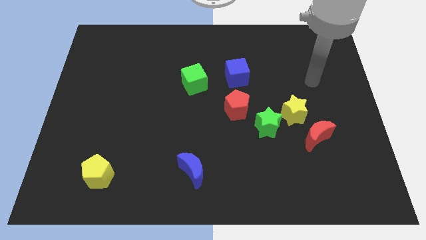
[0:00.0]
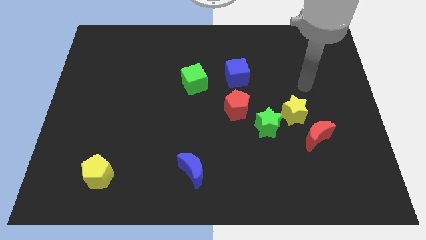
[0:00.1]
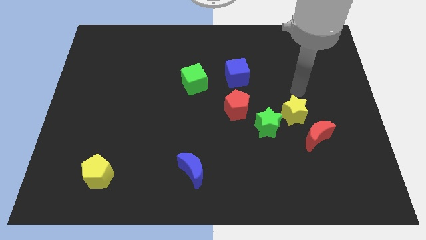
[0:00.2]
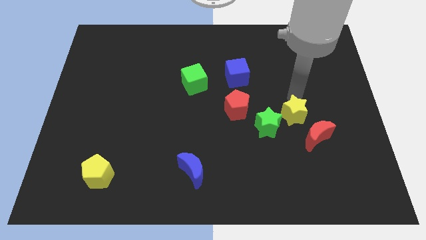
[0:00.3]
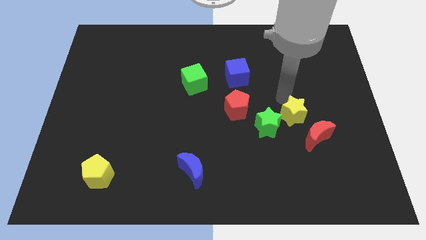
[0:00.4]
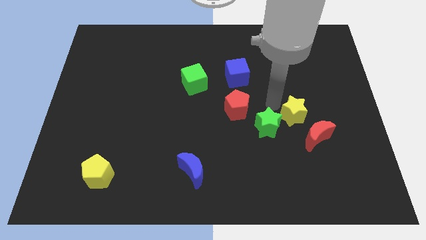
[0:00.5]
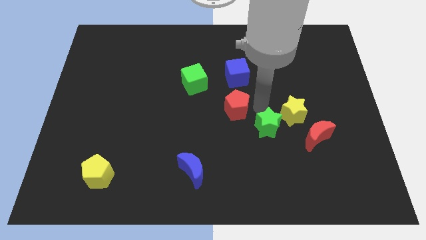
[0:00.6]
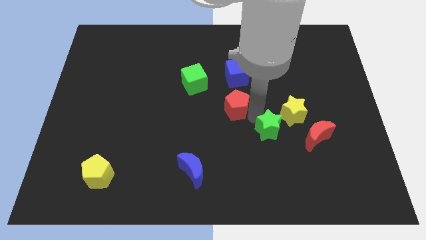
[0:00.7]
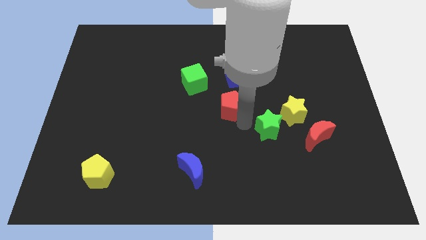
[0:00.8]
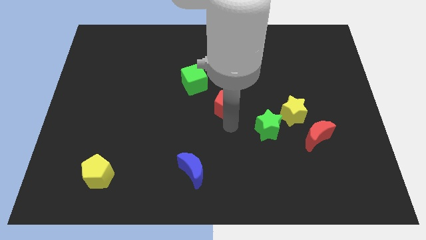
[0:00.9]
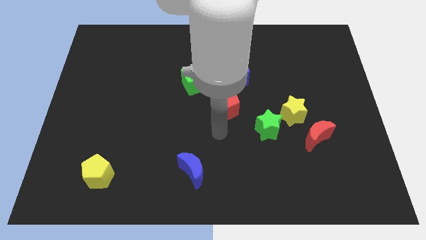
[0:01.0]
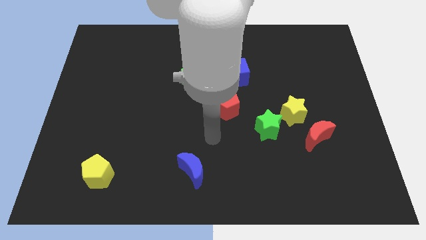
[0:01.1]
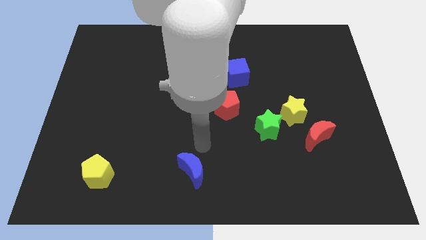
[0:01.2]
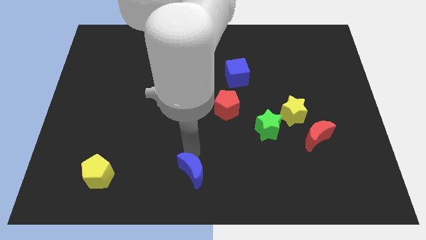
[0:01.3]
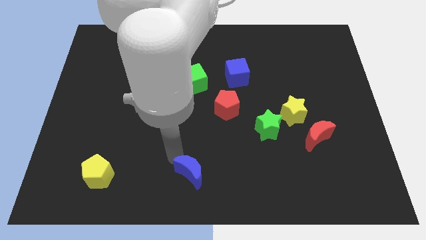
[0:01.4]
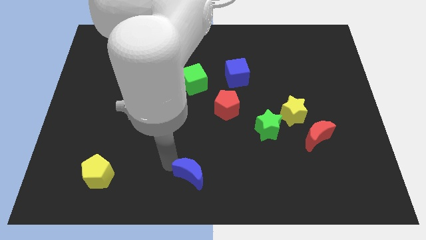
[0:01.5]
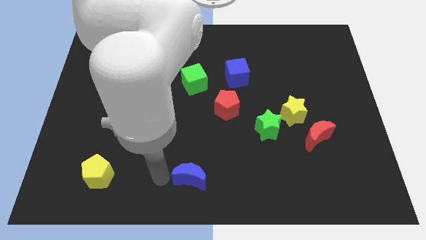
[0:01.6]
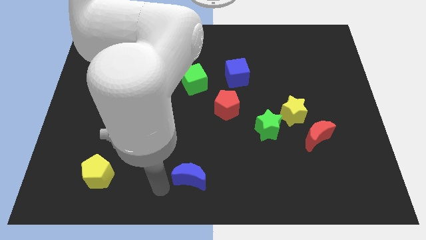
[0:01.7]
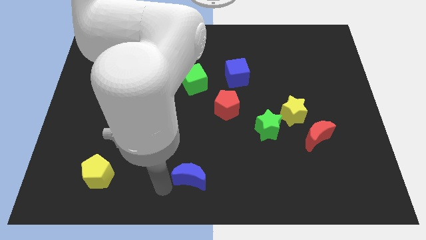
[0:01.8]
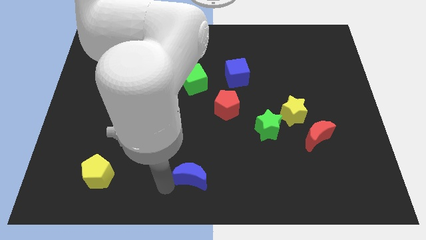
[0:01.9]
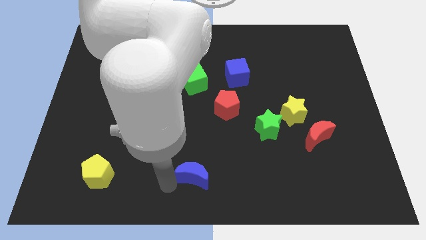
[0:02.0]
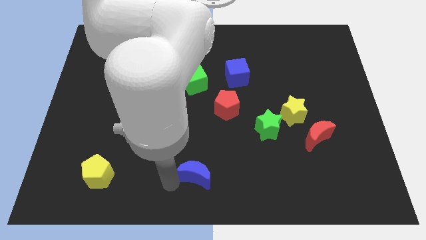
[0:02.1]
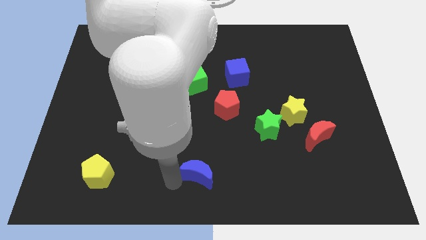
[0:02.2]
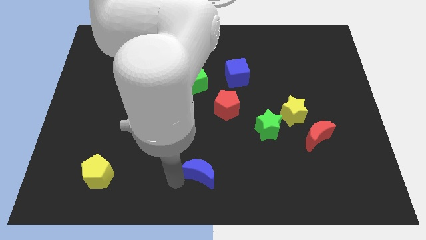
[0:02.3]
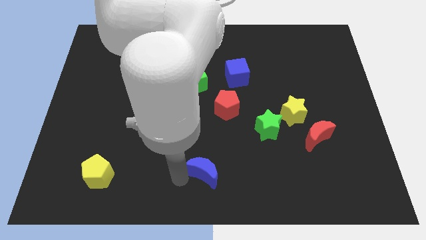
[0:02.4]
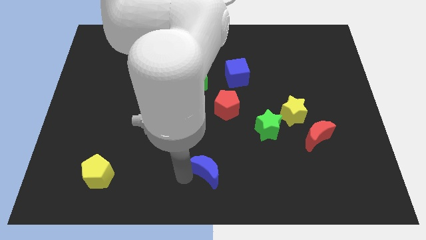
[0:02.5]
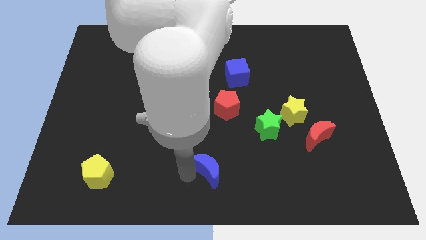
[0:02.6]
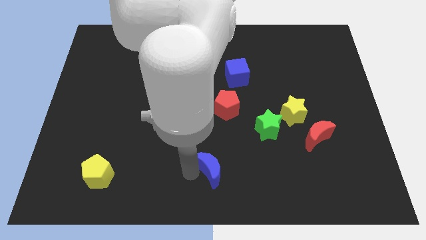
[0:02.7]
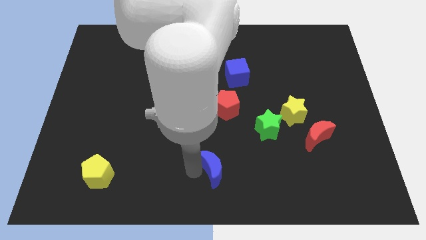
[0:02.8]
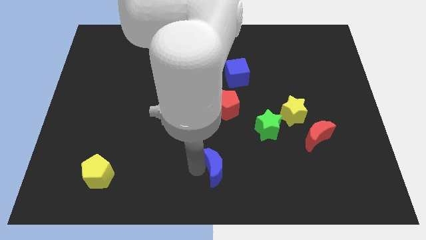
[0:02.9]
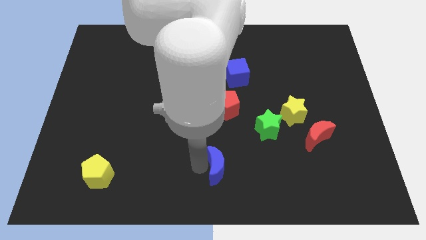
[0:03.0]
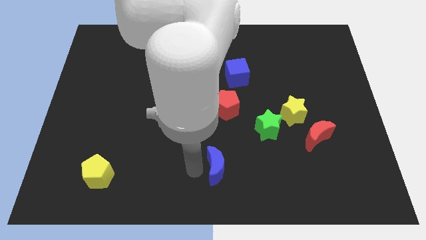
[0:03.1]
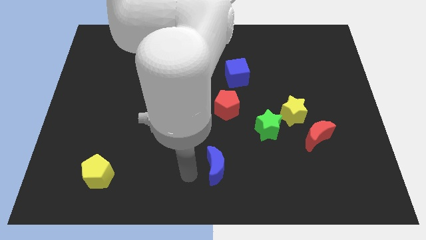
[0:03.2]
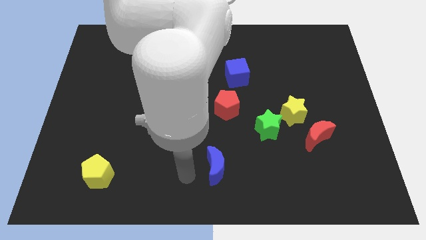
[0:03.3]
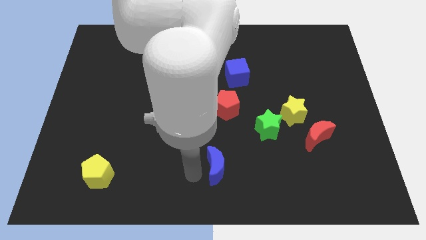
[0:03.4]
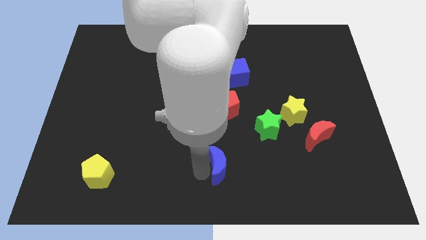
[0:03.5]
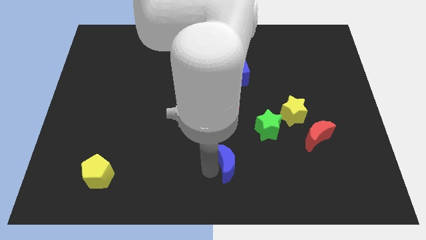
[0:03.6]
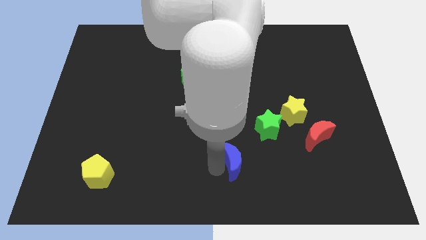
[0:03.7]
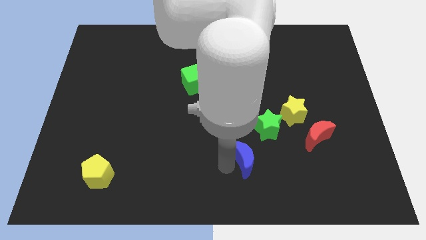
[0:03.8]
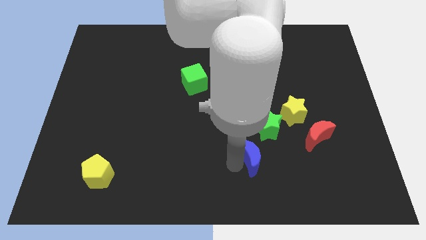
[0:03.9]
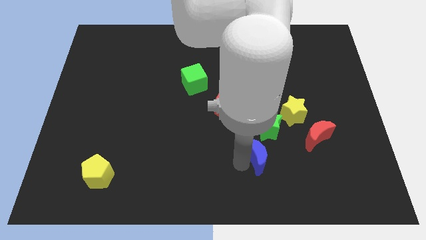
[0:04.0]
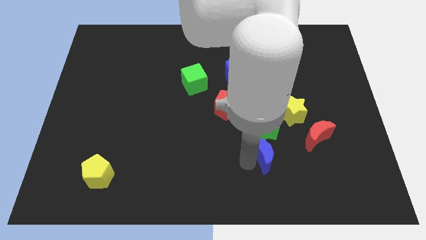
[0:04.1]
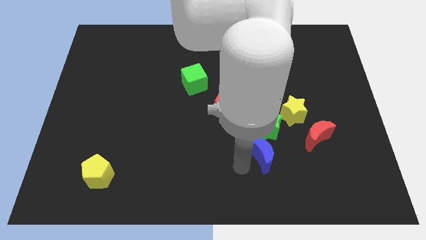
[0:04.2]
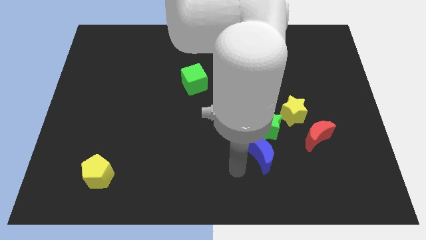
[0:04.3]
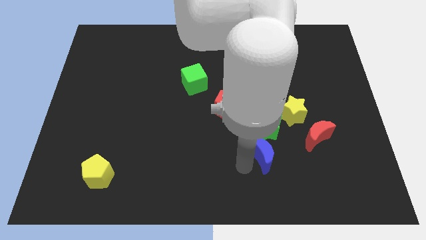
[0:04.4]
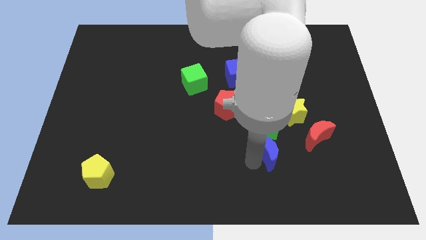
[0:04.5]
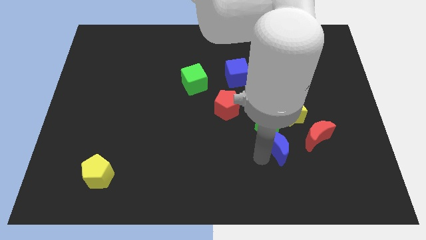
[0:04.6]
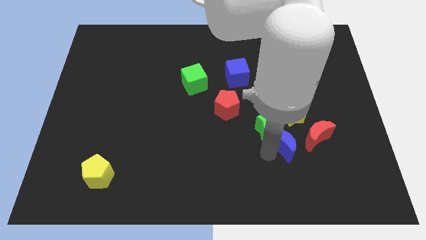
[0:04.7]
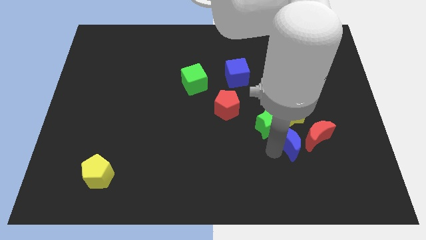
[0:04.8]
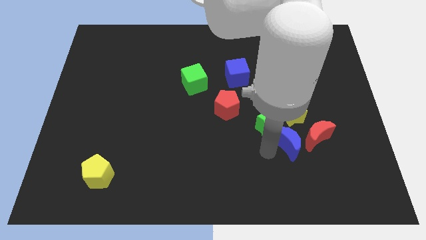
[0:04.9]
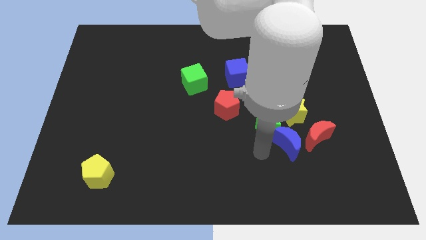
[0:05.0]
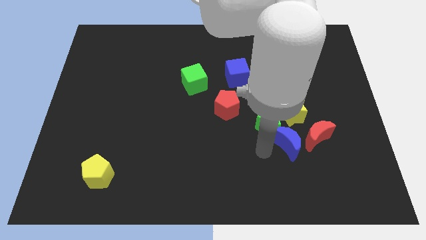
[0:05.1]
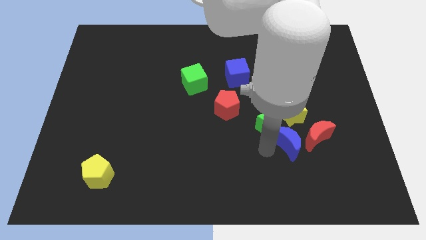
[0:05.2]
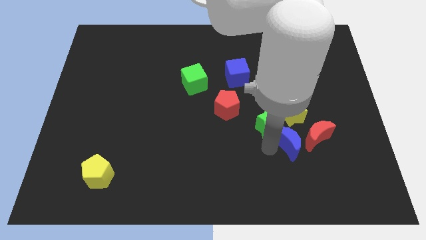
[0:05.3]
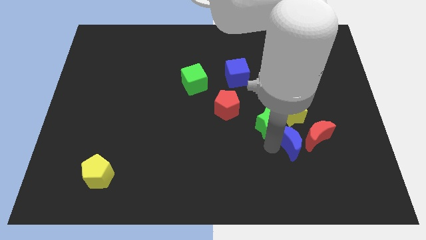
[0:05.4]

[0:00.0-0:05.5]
slide the blue moon next to the red moon

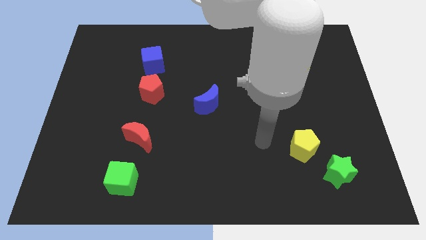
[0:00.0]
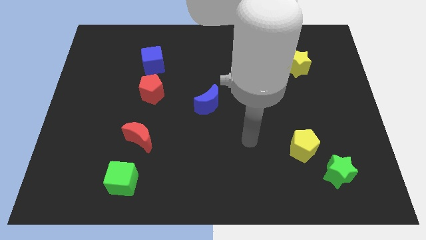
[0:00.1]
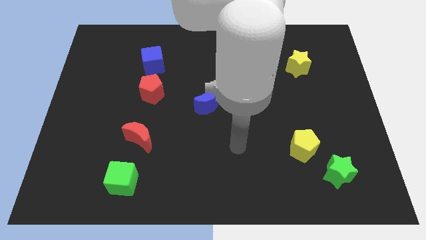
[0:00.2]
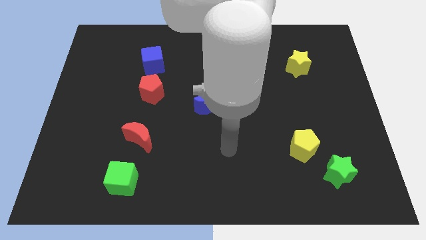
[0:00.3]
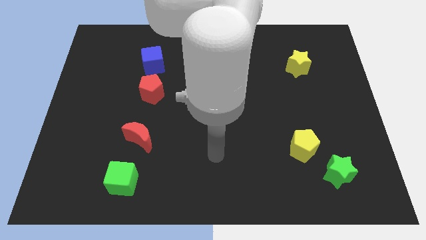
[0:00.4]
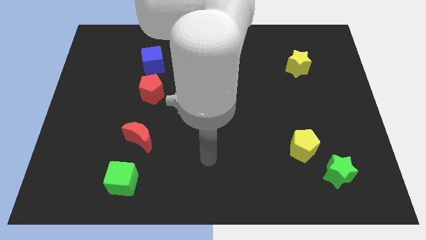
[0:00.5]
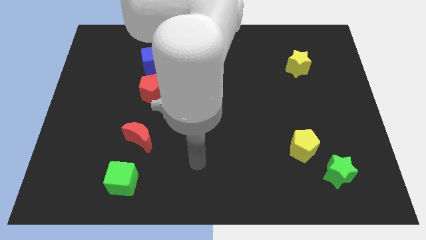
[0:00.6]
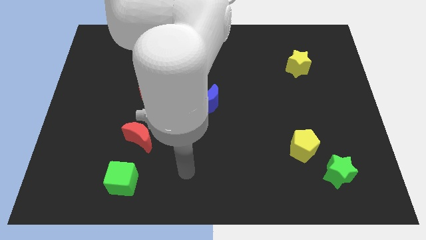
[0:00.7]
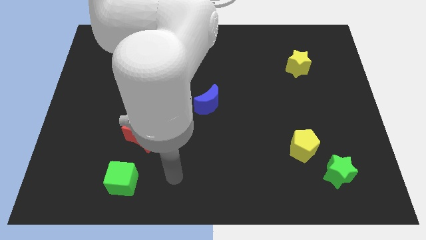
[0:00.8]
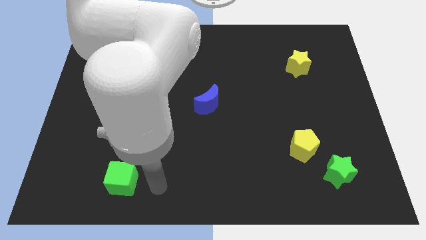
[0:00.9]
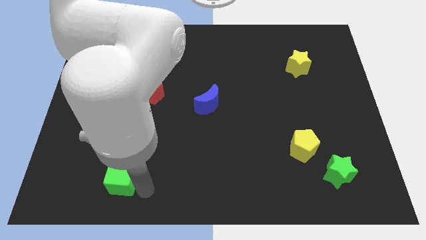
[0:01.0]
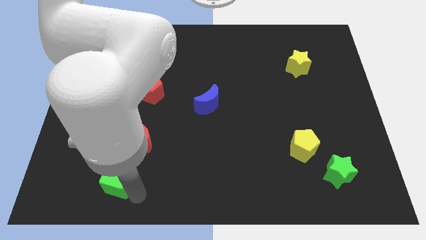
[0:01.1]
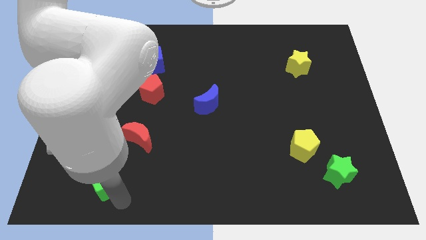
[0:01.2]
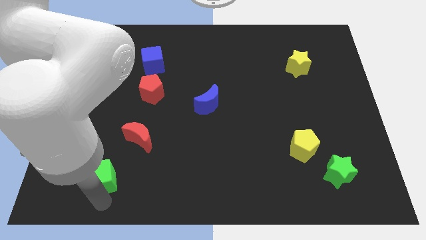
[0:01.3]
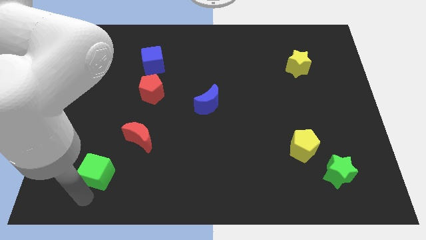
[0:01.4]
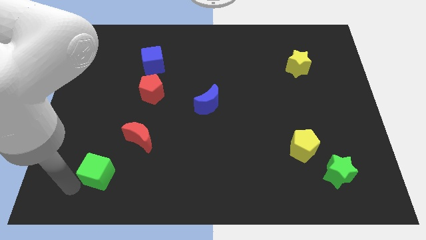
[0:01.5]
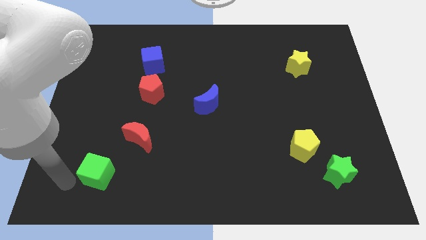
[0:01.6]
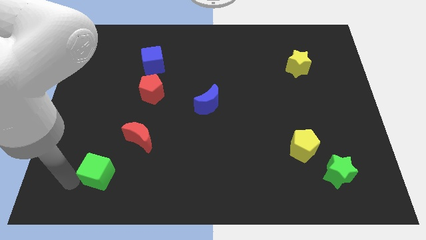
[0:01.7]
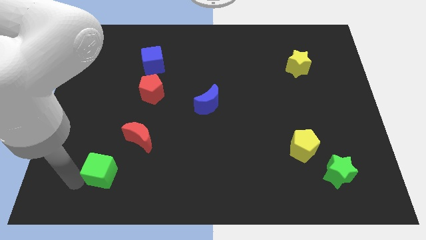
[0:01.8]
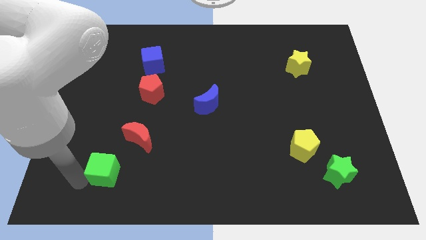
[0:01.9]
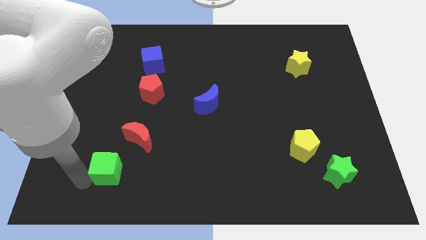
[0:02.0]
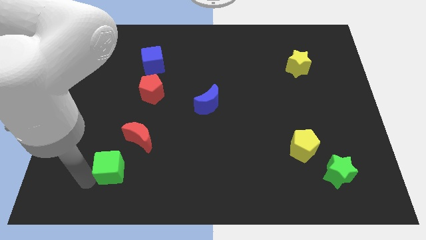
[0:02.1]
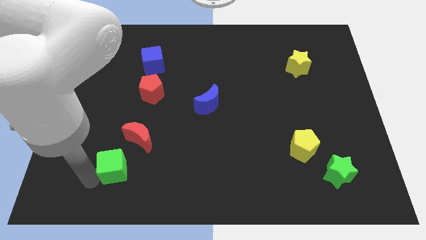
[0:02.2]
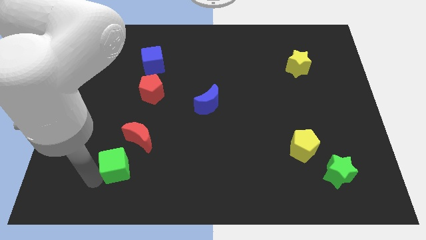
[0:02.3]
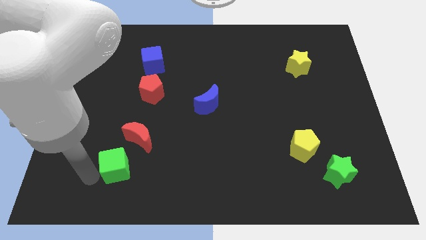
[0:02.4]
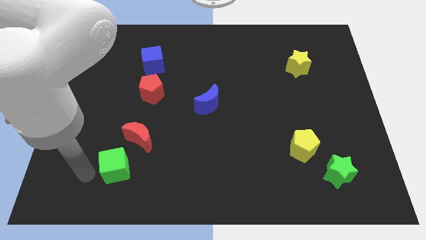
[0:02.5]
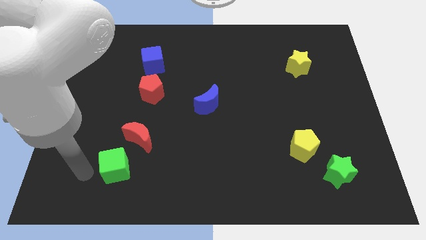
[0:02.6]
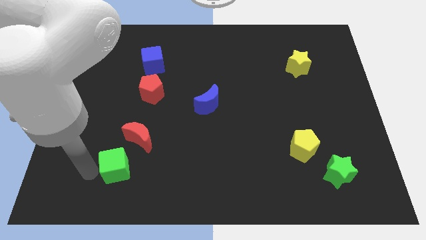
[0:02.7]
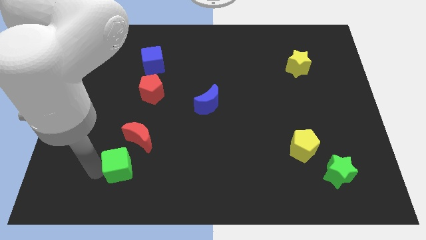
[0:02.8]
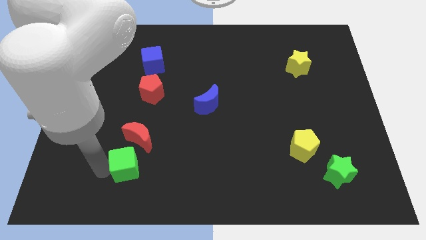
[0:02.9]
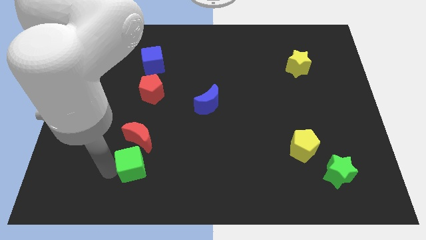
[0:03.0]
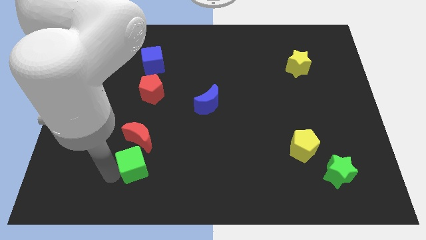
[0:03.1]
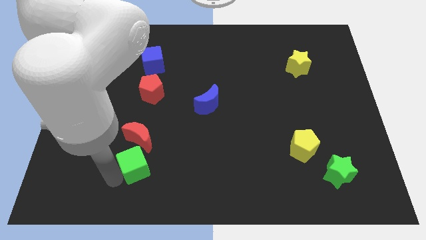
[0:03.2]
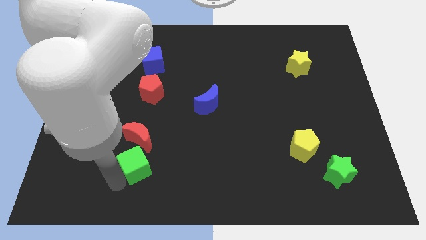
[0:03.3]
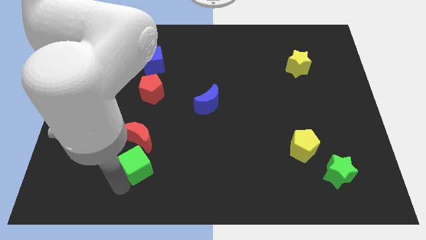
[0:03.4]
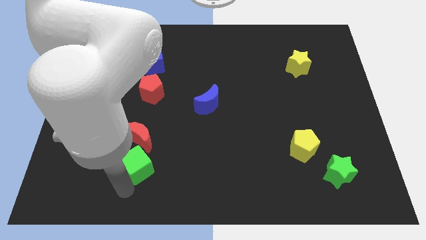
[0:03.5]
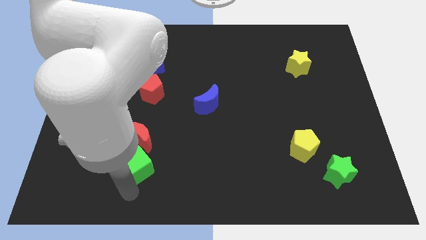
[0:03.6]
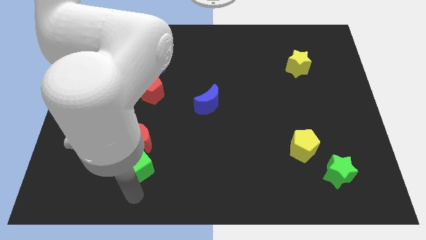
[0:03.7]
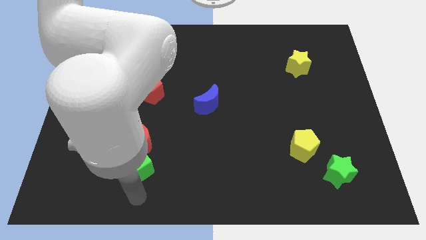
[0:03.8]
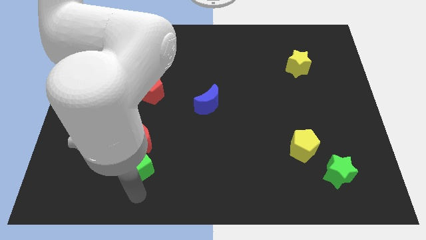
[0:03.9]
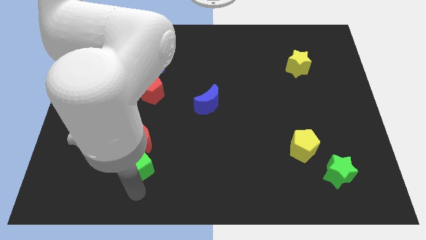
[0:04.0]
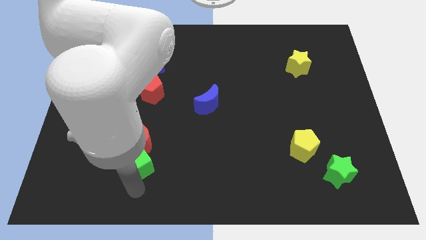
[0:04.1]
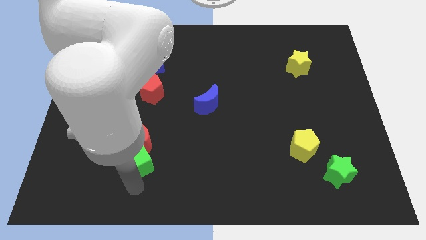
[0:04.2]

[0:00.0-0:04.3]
move the green cube close to the red moon
